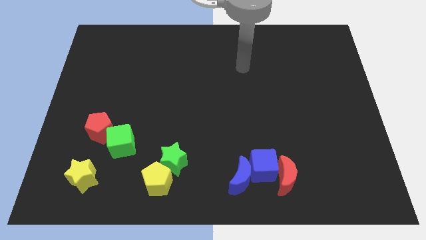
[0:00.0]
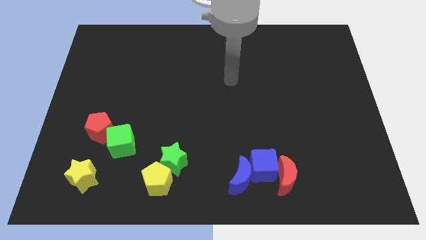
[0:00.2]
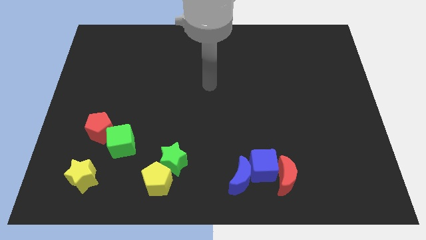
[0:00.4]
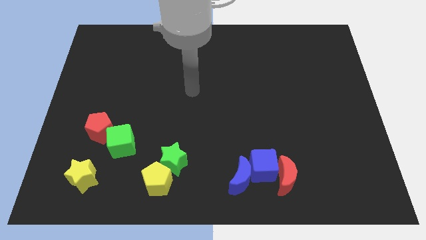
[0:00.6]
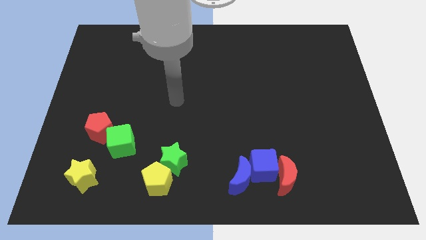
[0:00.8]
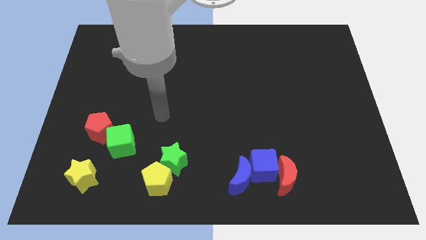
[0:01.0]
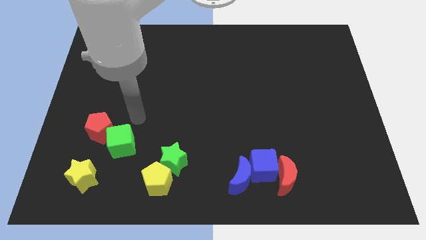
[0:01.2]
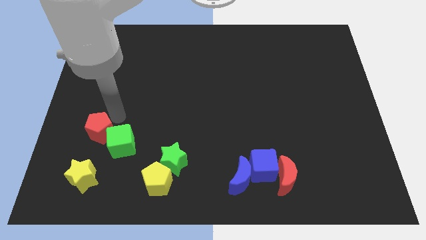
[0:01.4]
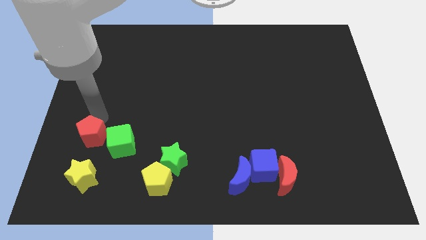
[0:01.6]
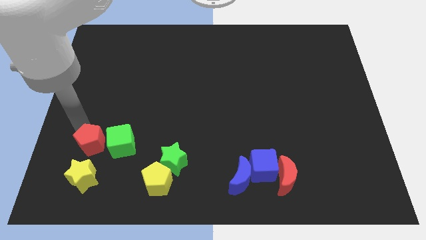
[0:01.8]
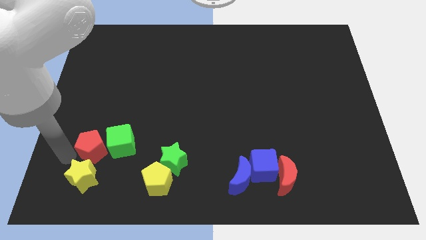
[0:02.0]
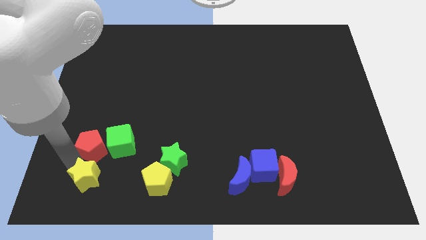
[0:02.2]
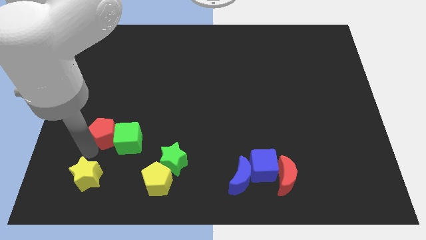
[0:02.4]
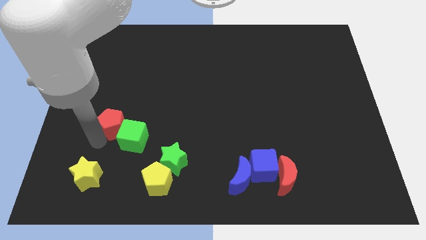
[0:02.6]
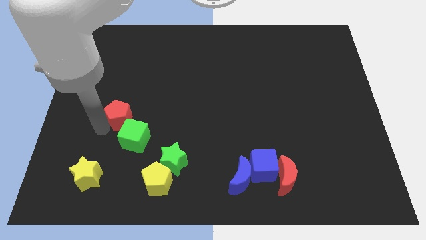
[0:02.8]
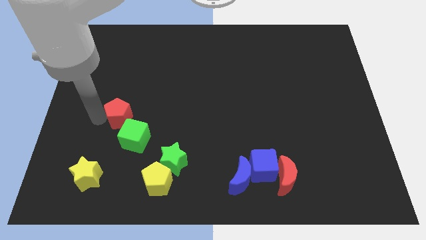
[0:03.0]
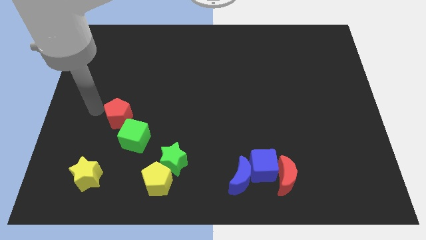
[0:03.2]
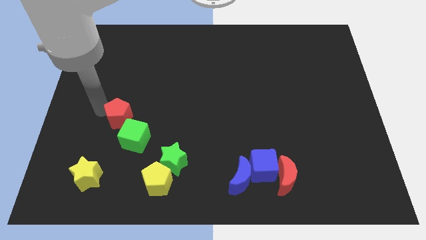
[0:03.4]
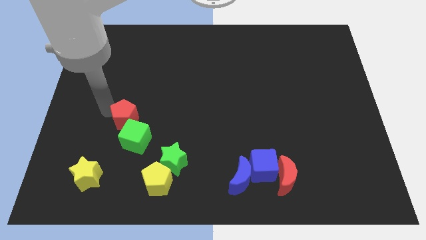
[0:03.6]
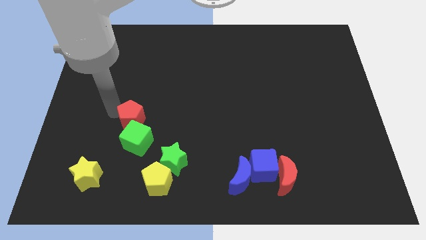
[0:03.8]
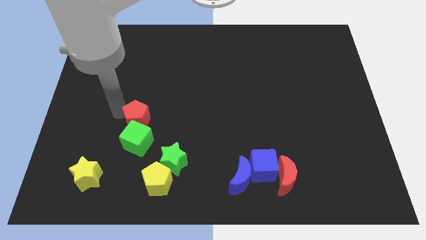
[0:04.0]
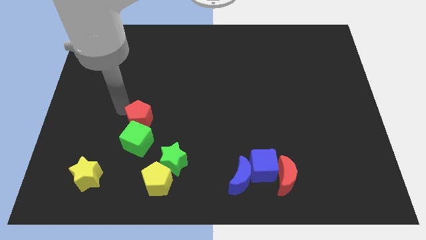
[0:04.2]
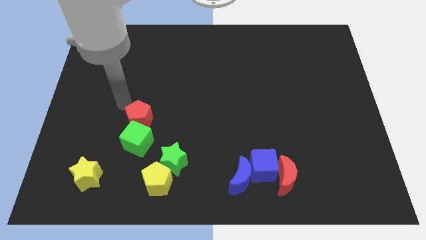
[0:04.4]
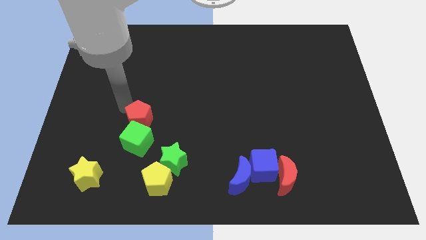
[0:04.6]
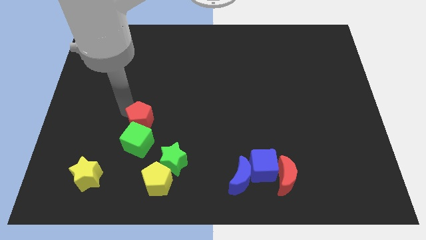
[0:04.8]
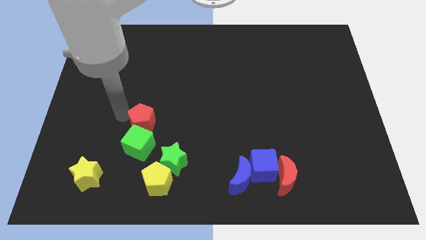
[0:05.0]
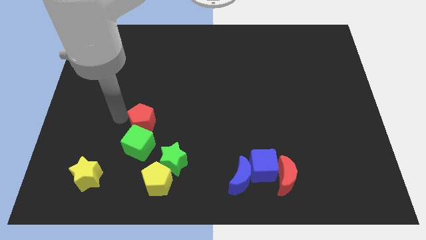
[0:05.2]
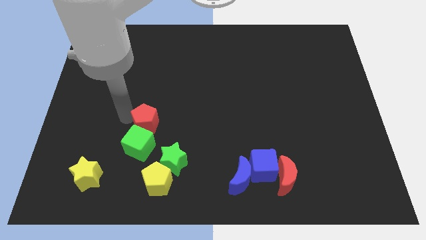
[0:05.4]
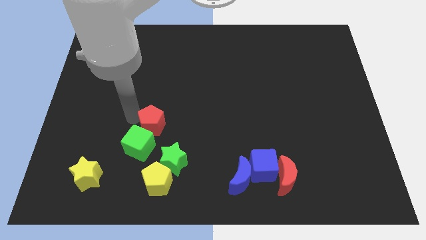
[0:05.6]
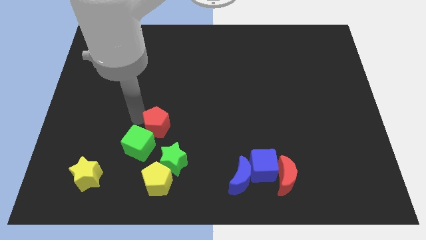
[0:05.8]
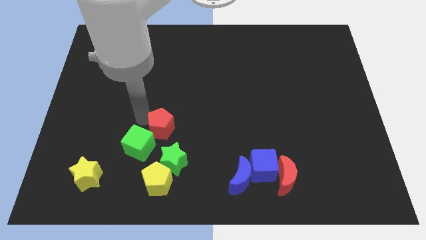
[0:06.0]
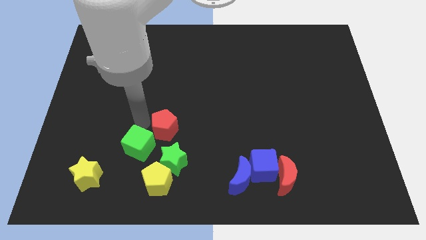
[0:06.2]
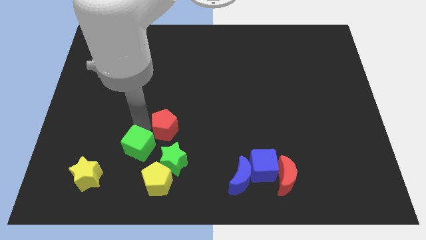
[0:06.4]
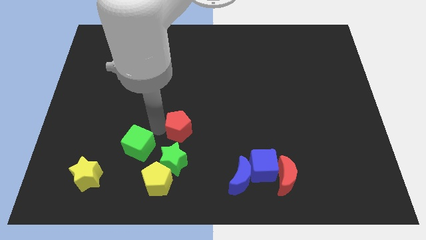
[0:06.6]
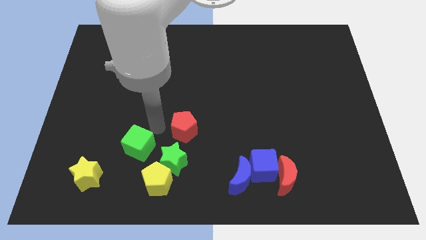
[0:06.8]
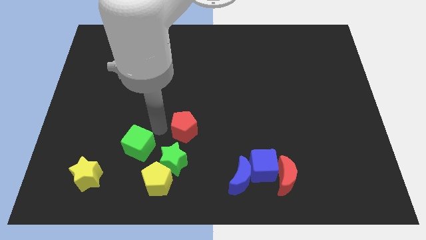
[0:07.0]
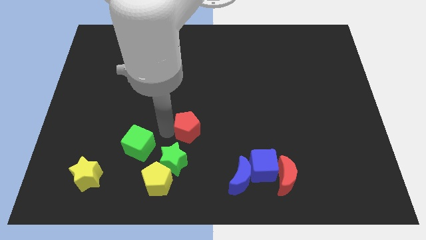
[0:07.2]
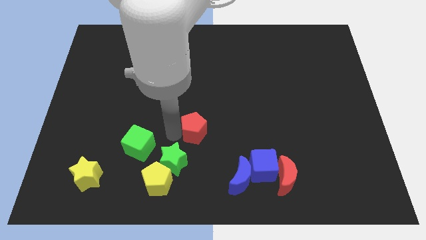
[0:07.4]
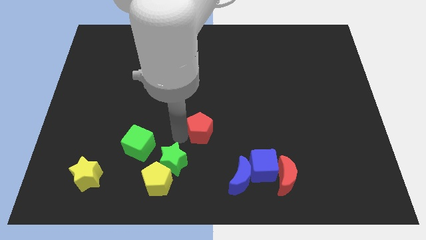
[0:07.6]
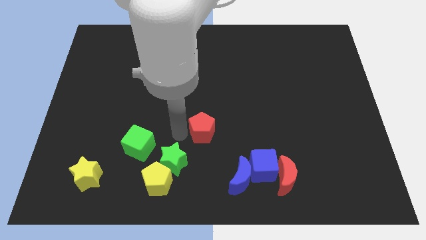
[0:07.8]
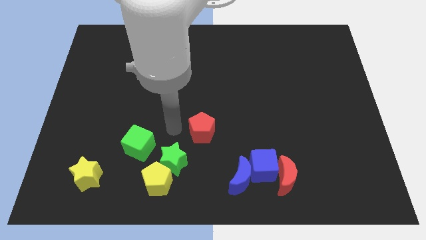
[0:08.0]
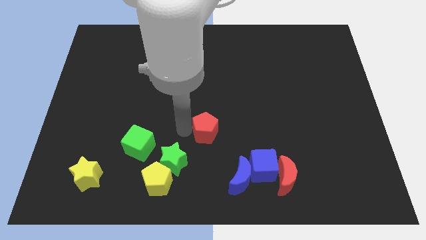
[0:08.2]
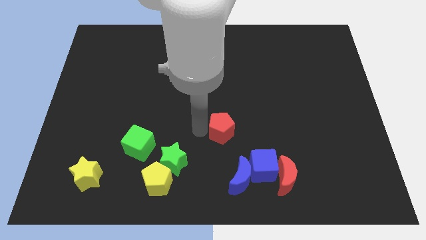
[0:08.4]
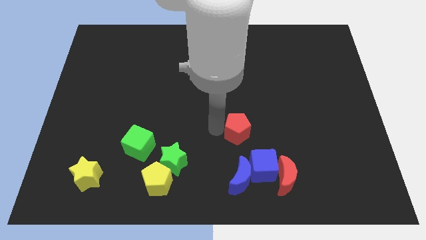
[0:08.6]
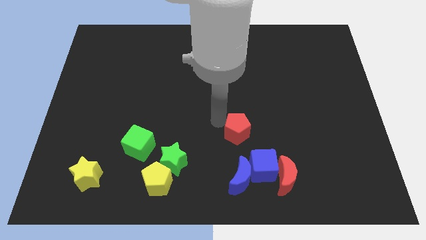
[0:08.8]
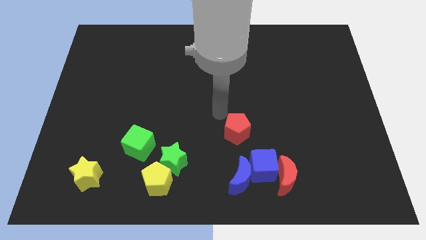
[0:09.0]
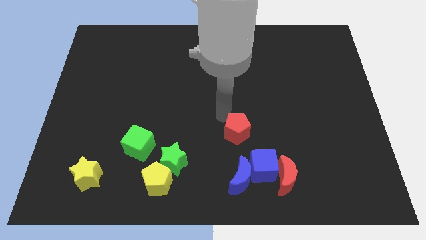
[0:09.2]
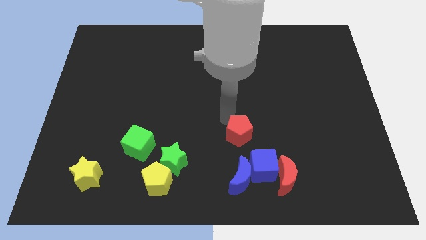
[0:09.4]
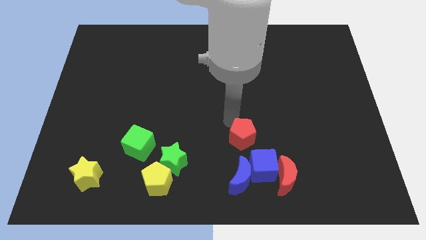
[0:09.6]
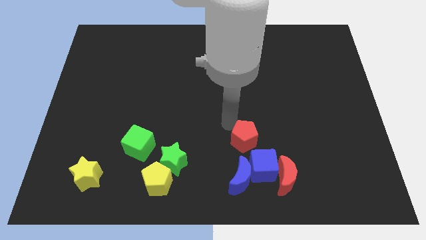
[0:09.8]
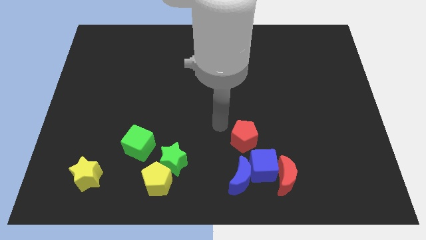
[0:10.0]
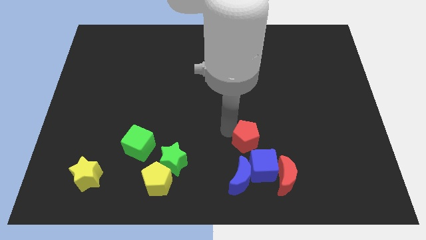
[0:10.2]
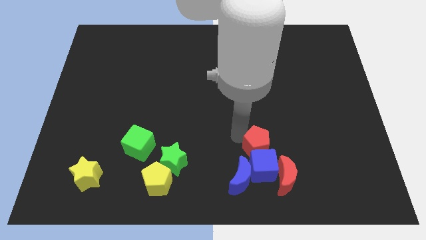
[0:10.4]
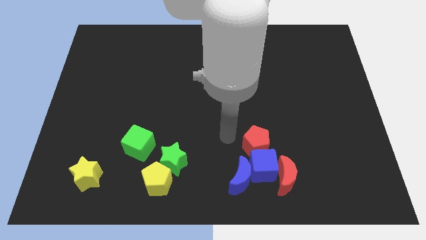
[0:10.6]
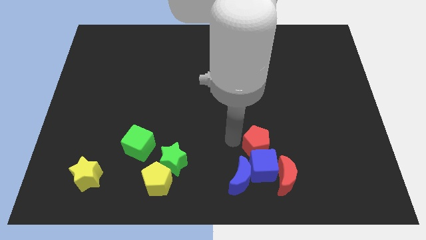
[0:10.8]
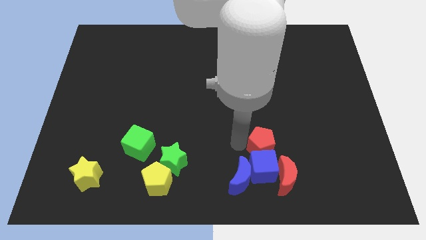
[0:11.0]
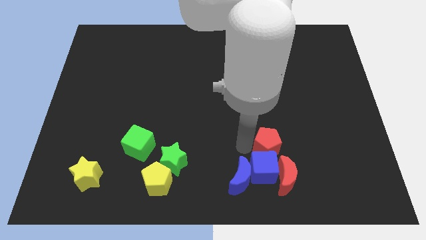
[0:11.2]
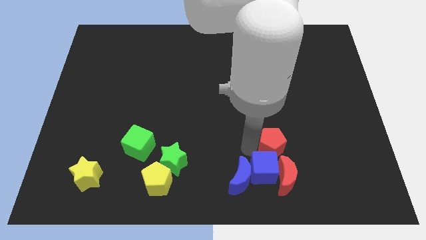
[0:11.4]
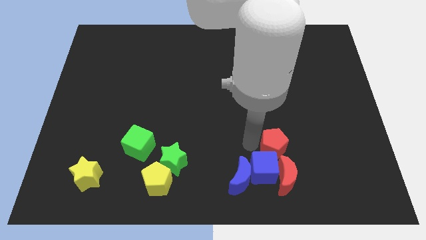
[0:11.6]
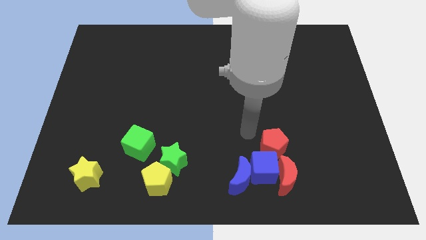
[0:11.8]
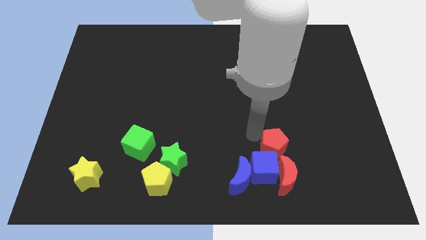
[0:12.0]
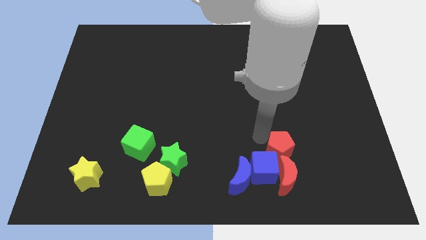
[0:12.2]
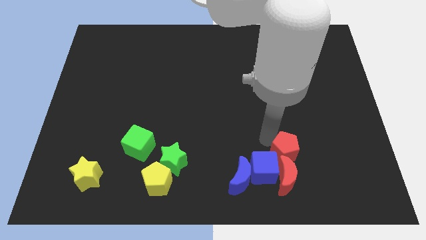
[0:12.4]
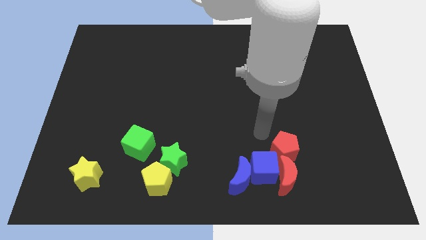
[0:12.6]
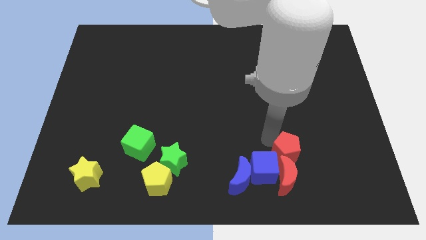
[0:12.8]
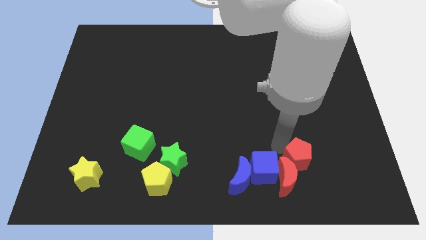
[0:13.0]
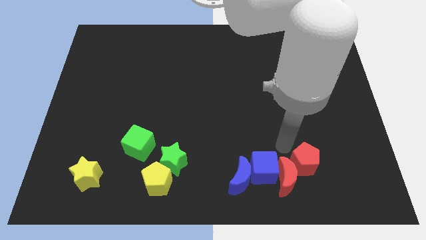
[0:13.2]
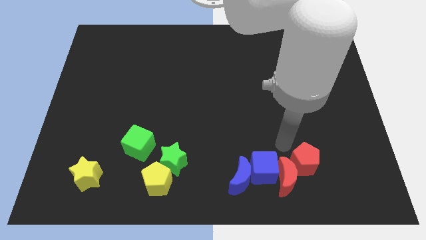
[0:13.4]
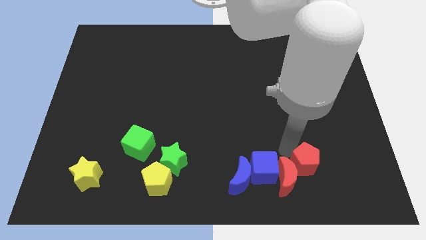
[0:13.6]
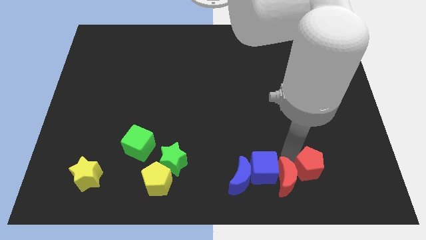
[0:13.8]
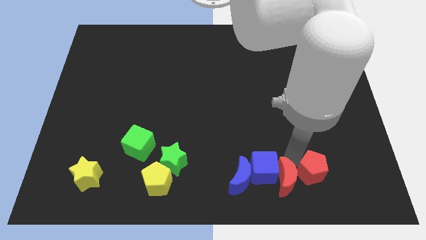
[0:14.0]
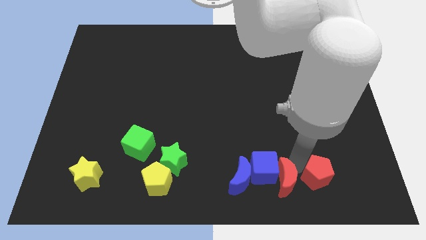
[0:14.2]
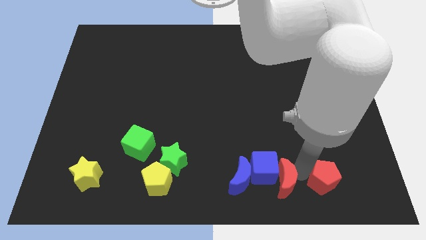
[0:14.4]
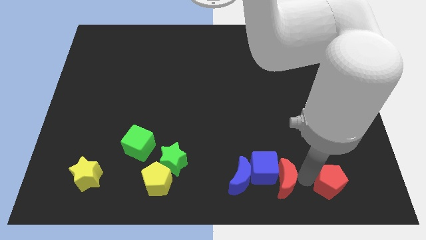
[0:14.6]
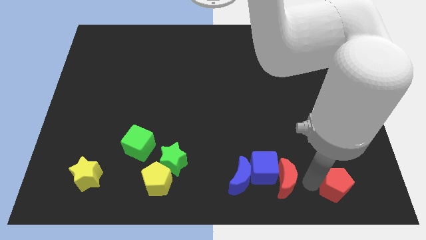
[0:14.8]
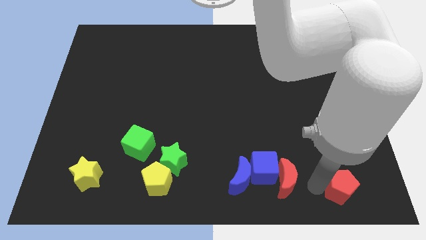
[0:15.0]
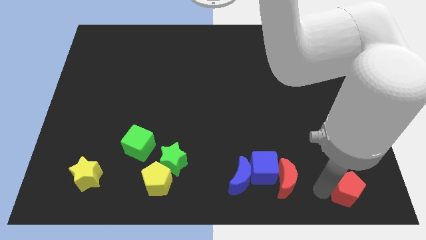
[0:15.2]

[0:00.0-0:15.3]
put the red pentagon to the bottom right of the board
